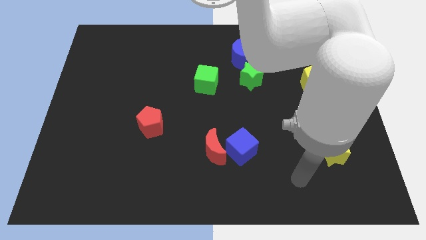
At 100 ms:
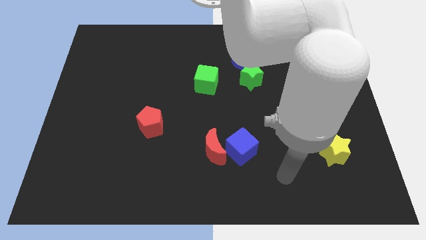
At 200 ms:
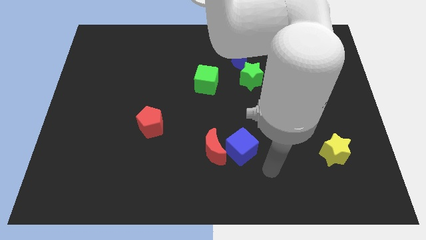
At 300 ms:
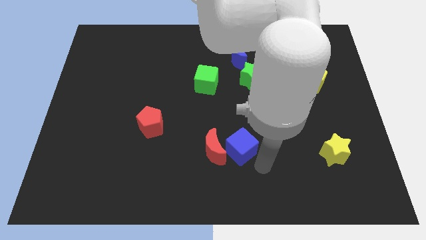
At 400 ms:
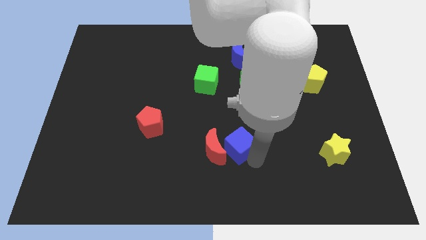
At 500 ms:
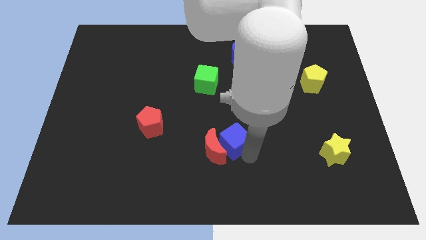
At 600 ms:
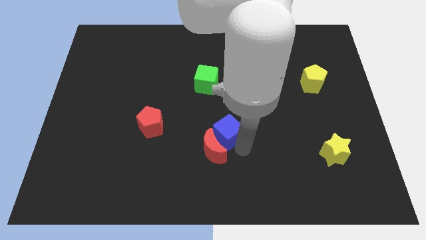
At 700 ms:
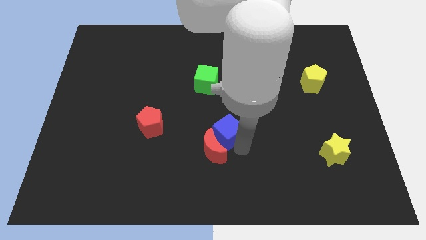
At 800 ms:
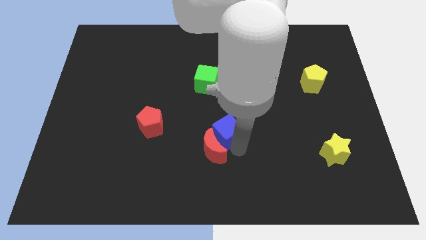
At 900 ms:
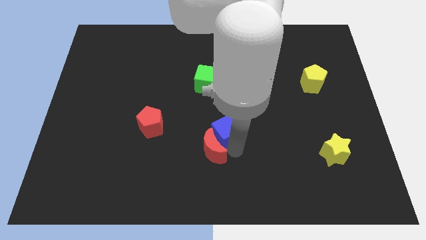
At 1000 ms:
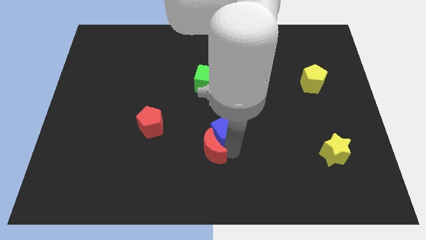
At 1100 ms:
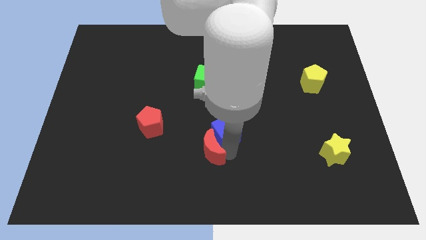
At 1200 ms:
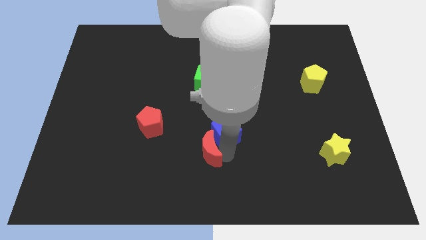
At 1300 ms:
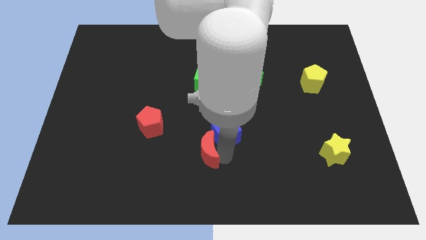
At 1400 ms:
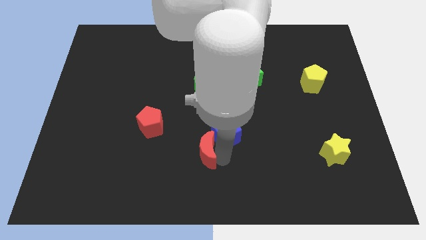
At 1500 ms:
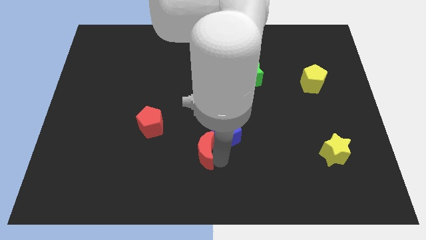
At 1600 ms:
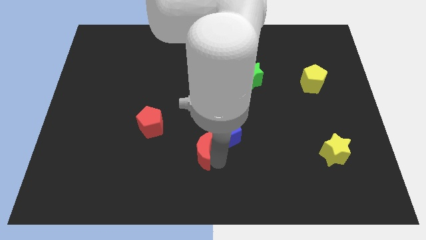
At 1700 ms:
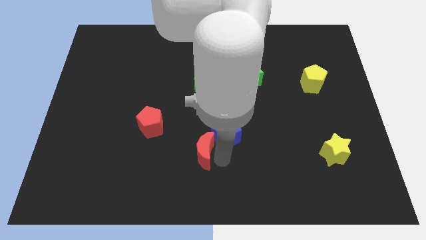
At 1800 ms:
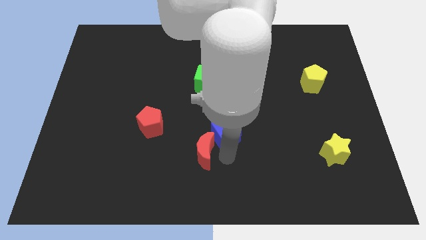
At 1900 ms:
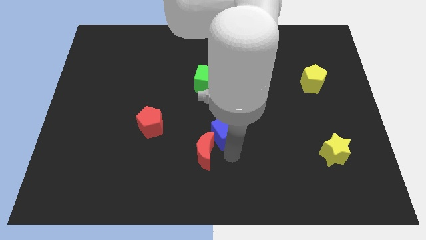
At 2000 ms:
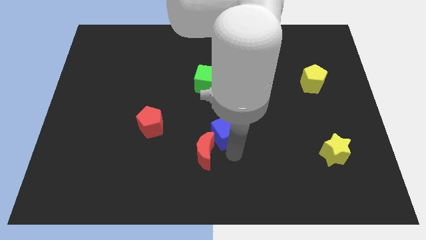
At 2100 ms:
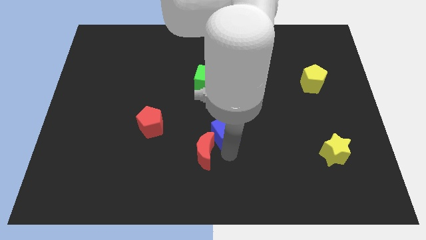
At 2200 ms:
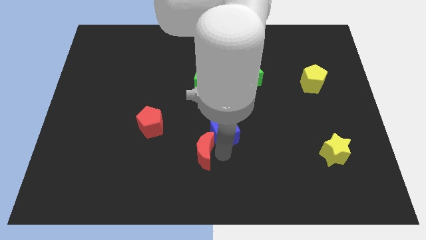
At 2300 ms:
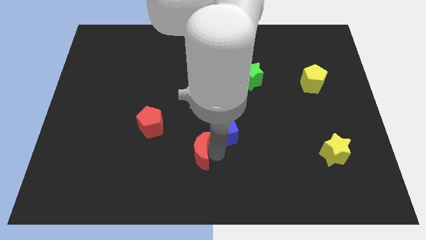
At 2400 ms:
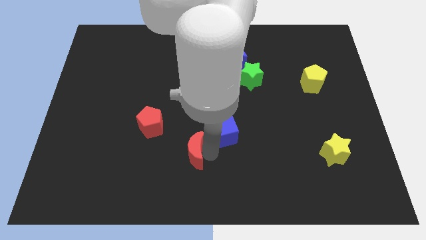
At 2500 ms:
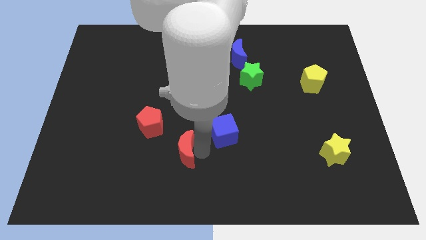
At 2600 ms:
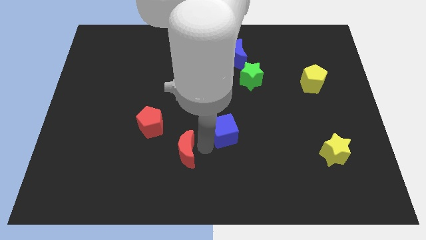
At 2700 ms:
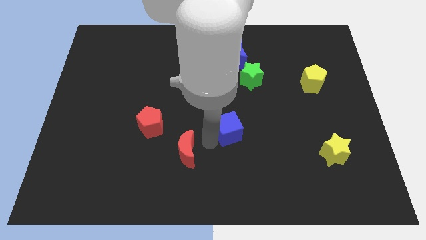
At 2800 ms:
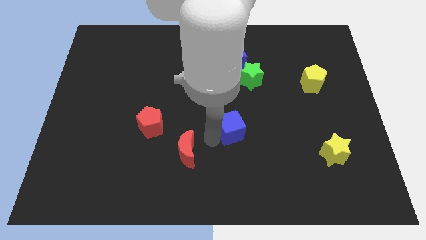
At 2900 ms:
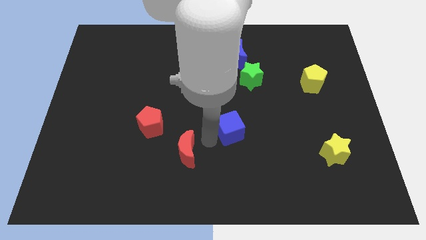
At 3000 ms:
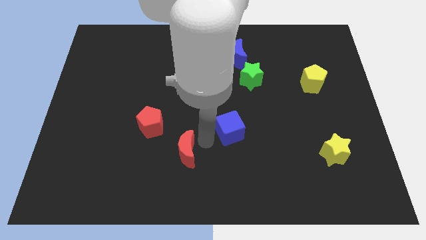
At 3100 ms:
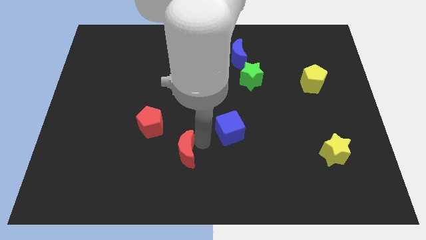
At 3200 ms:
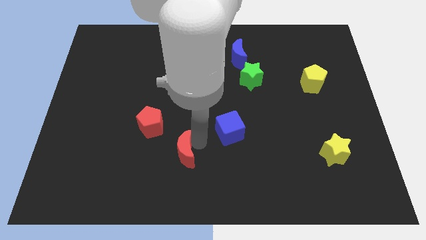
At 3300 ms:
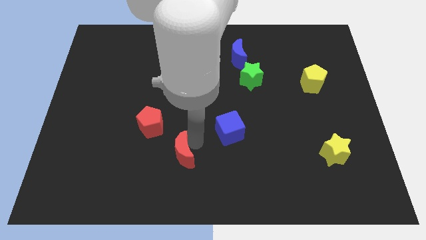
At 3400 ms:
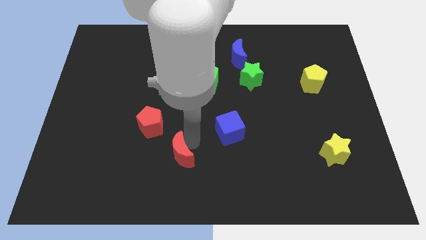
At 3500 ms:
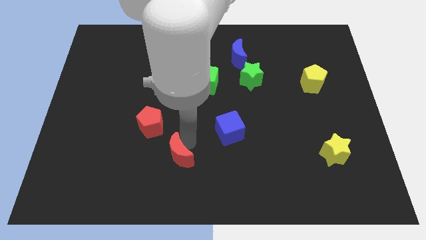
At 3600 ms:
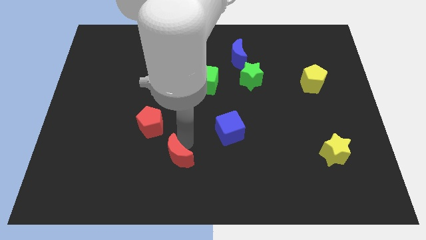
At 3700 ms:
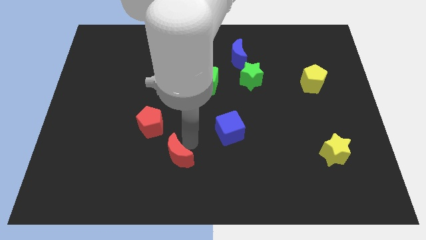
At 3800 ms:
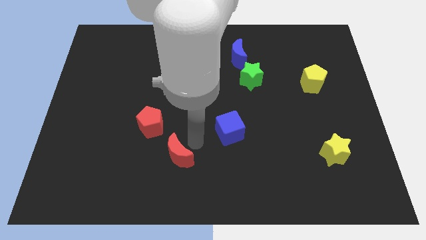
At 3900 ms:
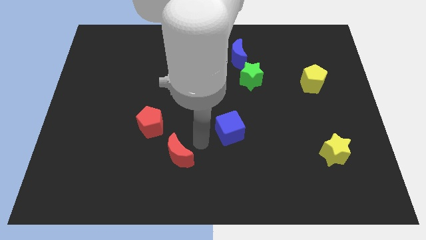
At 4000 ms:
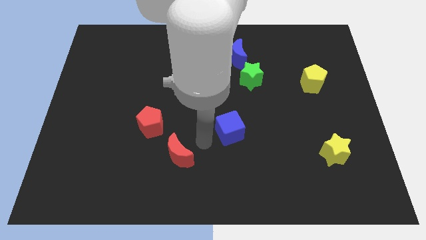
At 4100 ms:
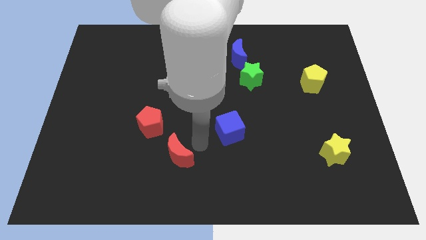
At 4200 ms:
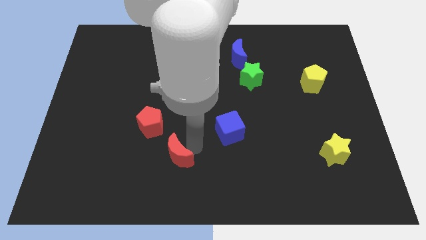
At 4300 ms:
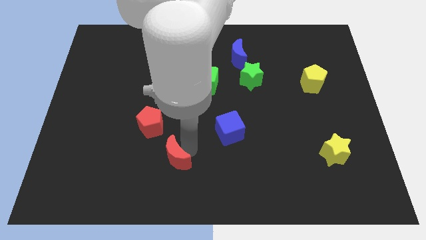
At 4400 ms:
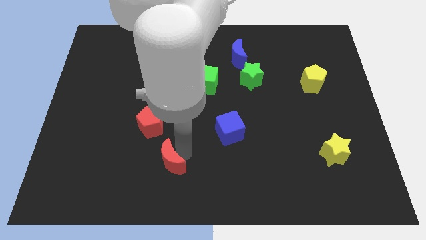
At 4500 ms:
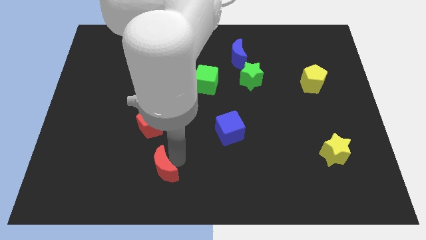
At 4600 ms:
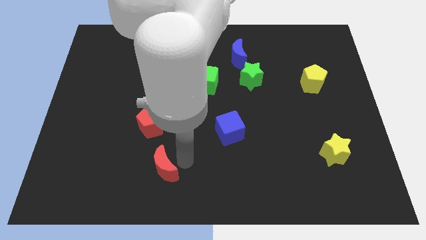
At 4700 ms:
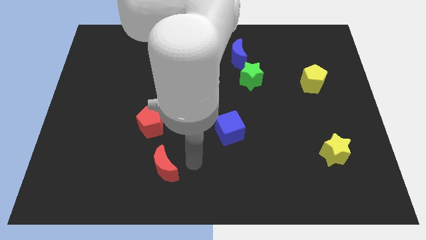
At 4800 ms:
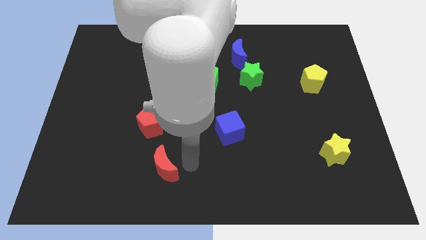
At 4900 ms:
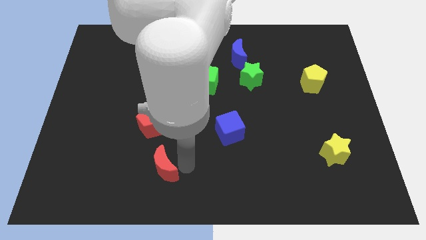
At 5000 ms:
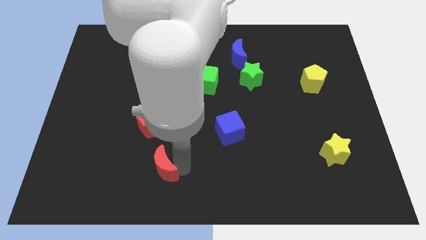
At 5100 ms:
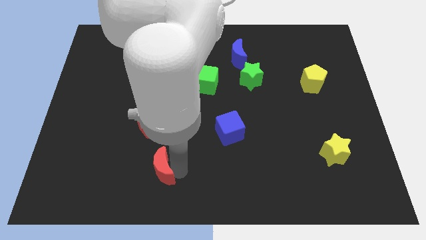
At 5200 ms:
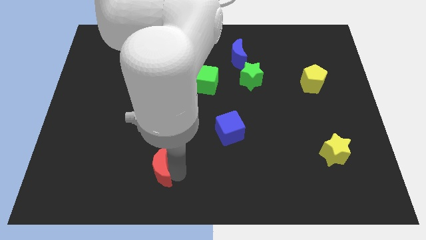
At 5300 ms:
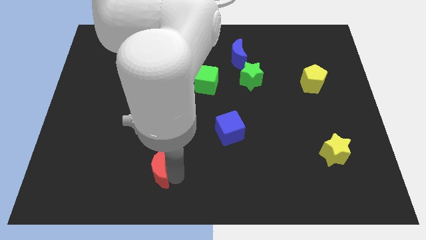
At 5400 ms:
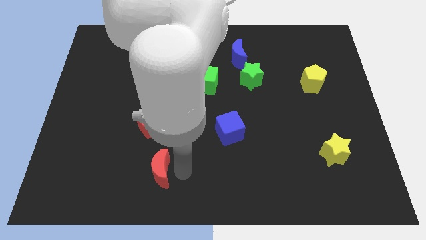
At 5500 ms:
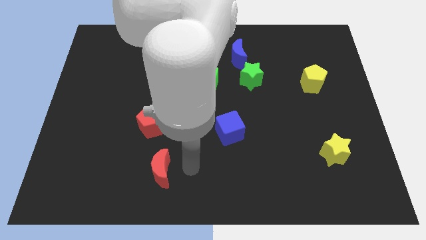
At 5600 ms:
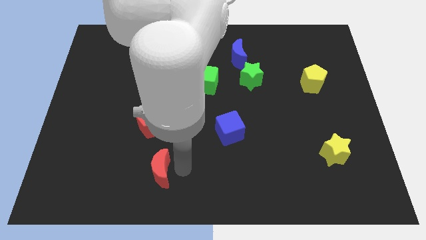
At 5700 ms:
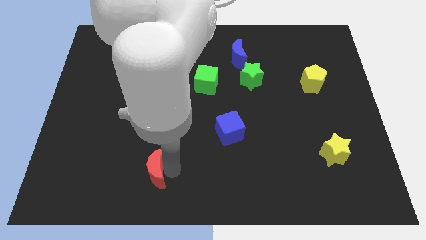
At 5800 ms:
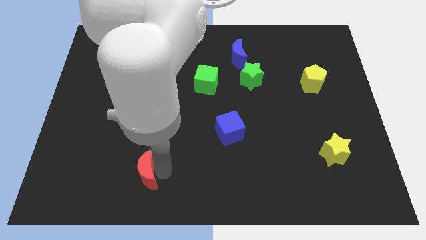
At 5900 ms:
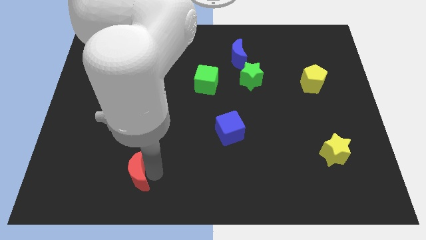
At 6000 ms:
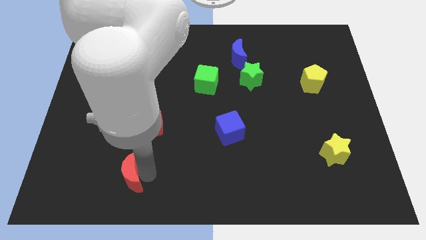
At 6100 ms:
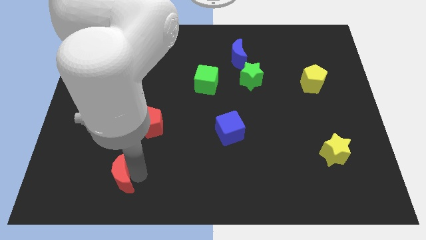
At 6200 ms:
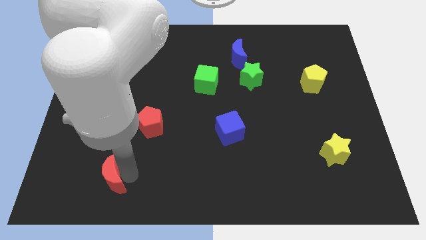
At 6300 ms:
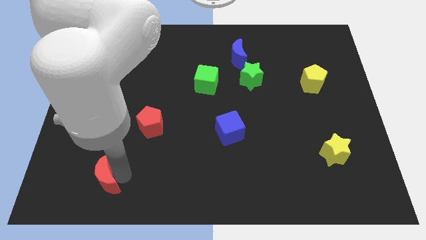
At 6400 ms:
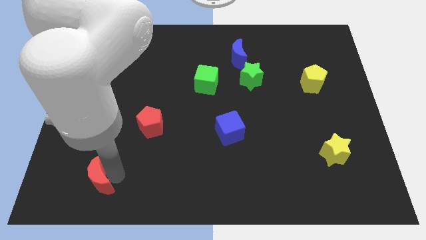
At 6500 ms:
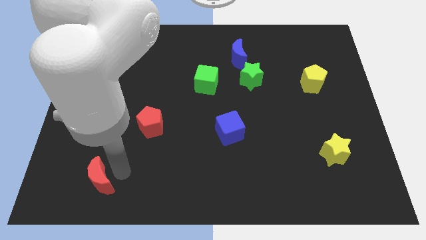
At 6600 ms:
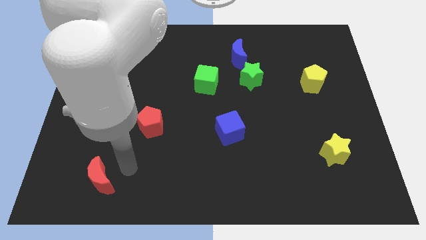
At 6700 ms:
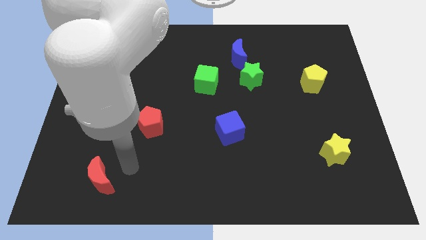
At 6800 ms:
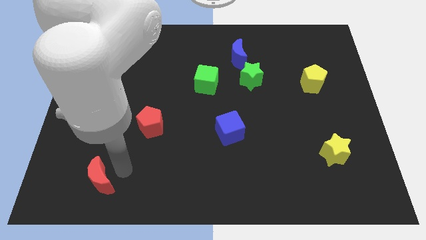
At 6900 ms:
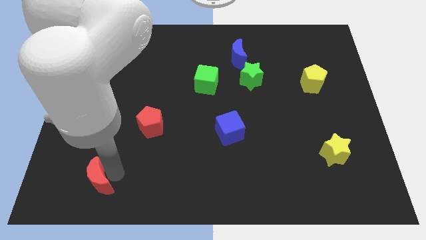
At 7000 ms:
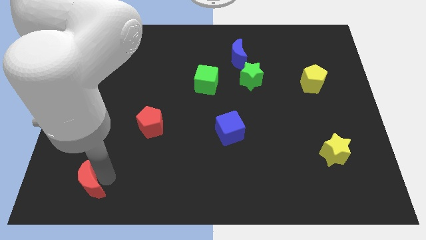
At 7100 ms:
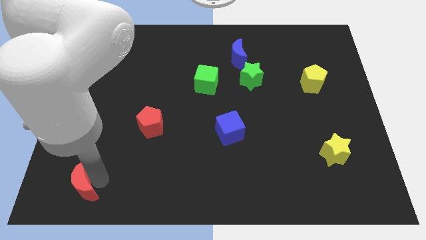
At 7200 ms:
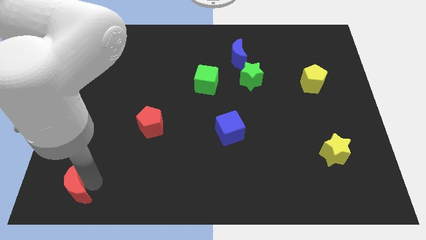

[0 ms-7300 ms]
move the red moon to the lower left corner

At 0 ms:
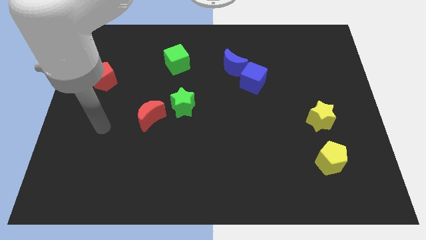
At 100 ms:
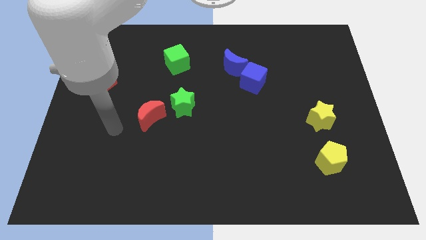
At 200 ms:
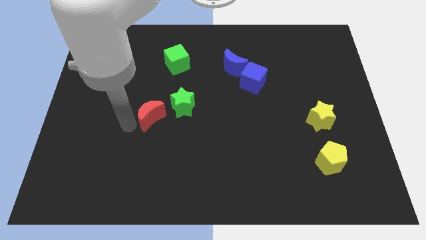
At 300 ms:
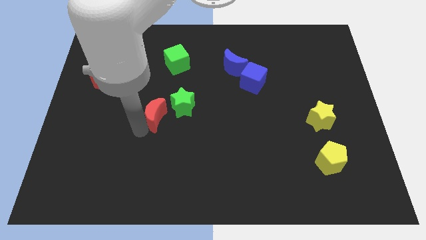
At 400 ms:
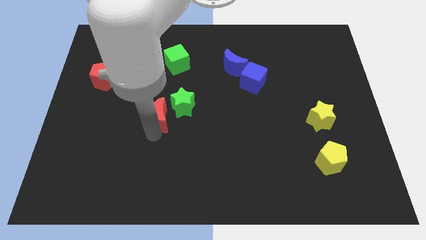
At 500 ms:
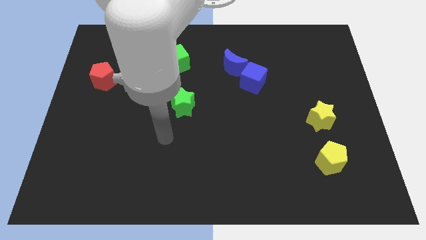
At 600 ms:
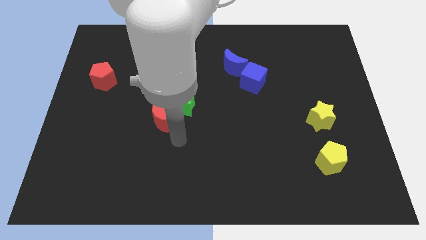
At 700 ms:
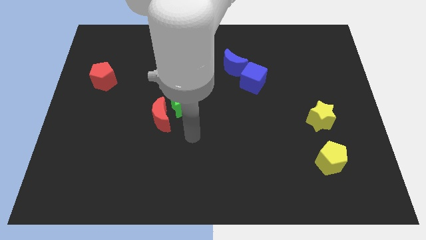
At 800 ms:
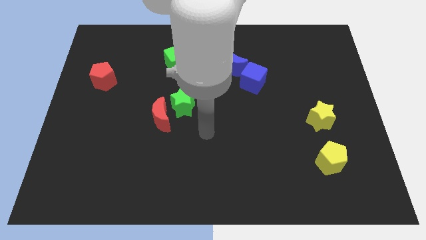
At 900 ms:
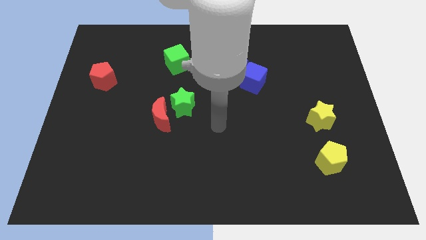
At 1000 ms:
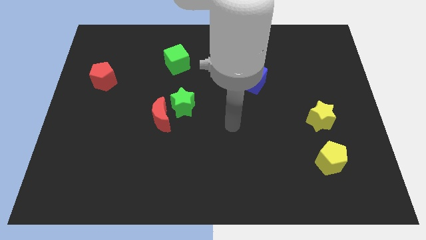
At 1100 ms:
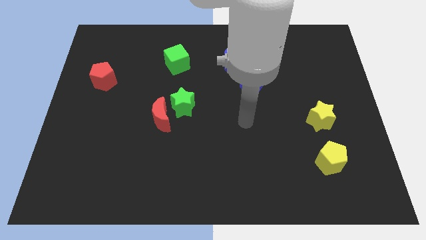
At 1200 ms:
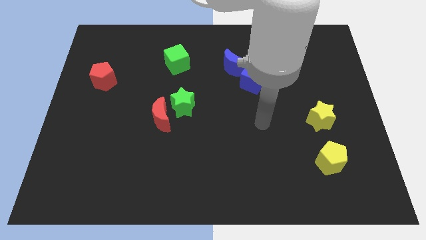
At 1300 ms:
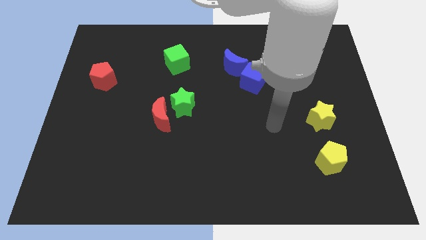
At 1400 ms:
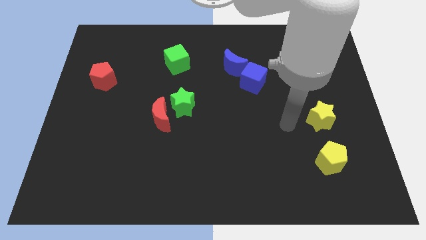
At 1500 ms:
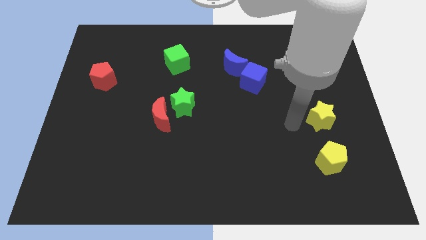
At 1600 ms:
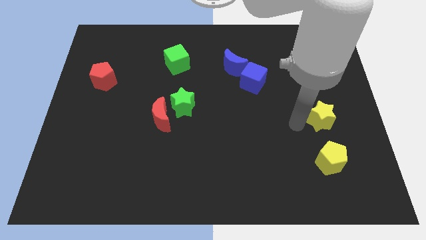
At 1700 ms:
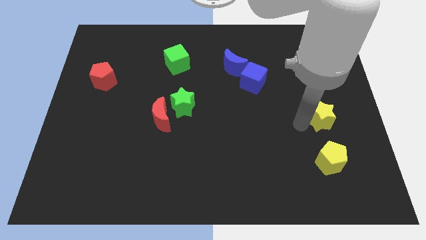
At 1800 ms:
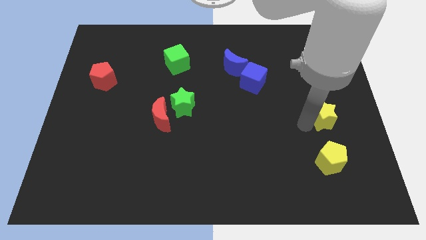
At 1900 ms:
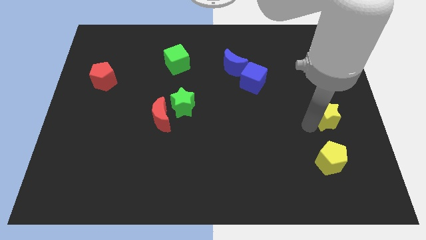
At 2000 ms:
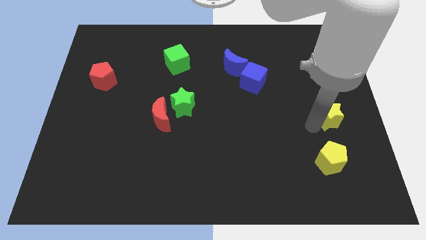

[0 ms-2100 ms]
slide the yellow star to the right side of the board
